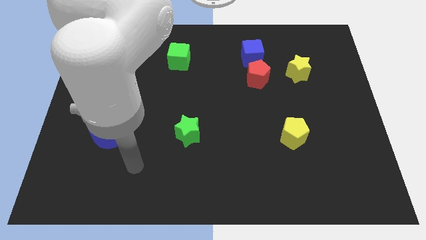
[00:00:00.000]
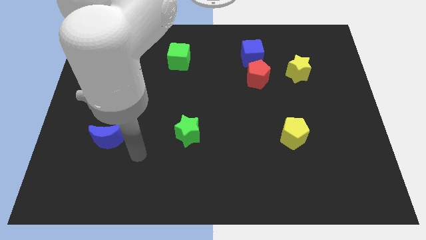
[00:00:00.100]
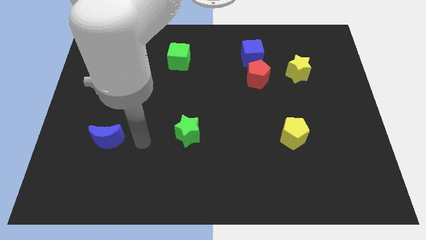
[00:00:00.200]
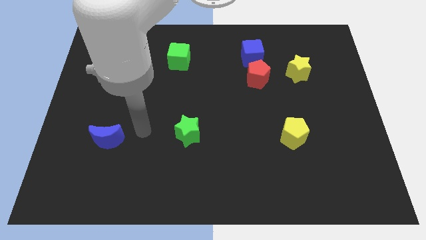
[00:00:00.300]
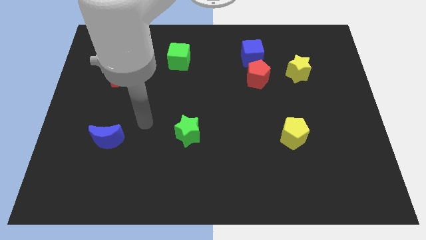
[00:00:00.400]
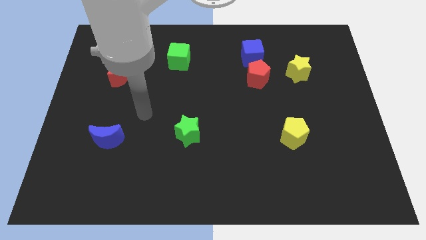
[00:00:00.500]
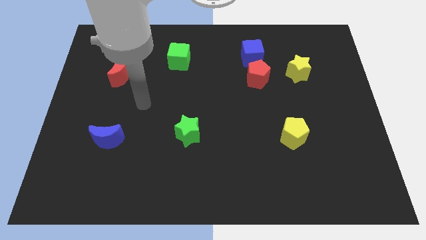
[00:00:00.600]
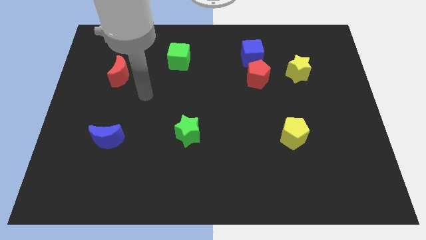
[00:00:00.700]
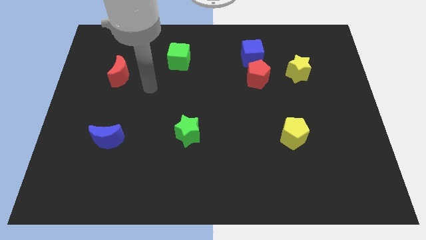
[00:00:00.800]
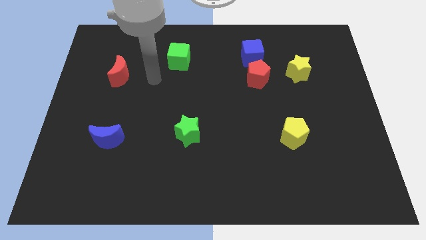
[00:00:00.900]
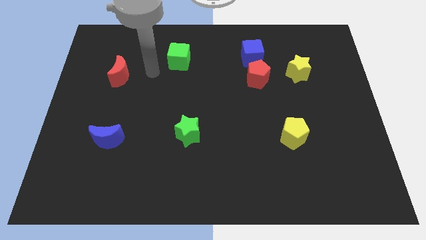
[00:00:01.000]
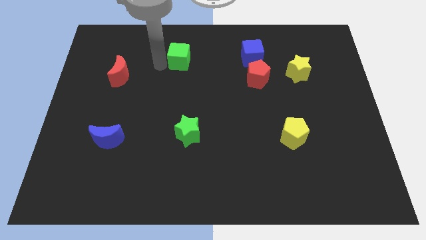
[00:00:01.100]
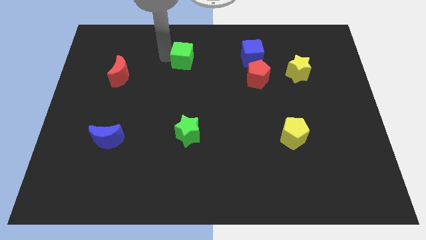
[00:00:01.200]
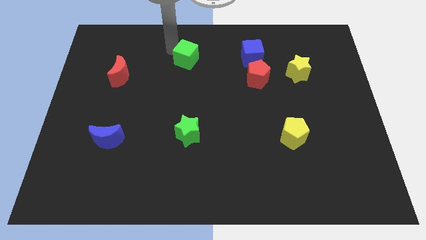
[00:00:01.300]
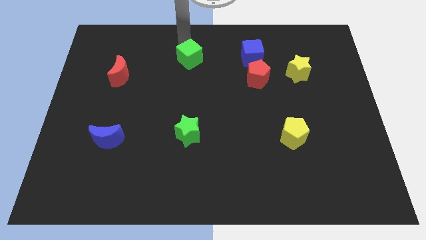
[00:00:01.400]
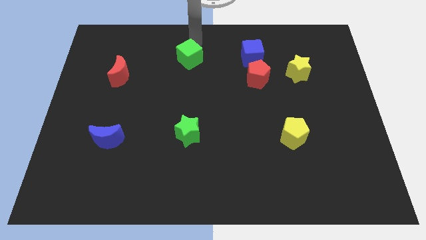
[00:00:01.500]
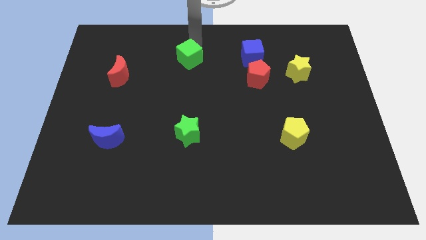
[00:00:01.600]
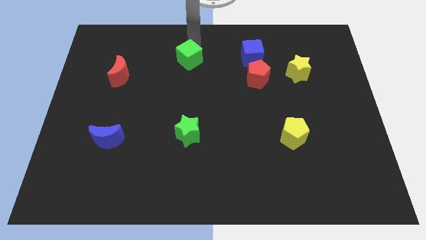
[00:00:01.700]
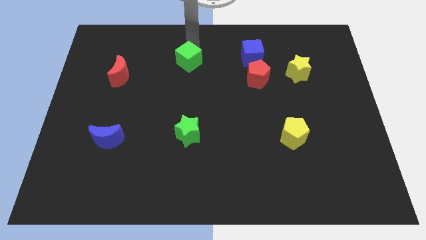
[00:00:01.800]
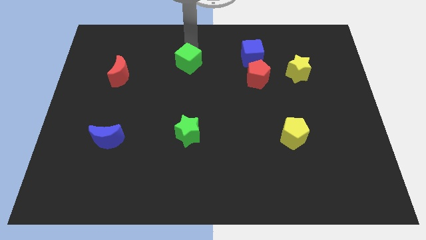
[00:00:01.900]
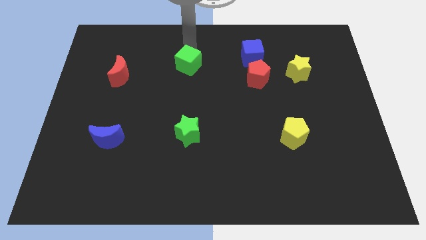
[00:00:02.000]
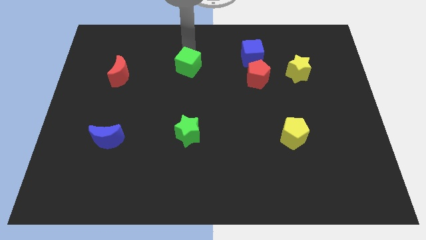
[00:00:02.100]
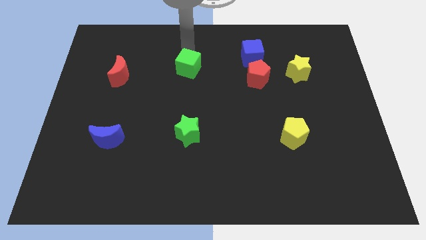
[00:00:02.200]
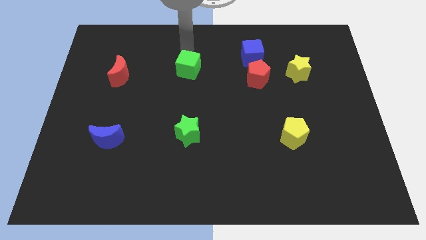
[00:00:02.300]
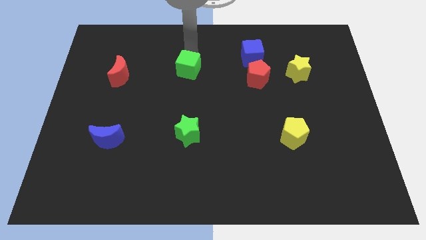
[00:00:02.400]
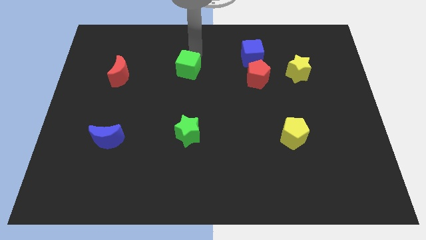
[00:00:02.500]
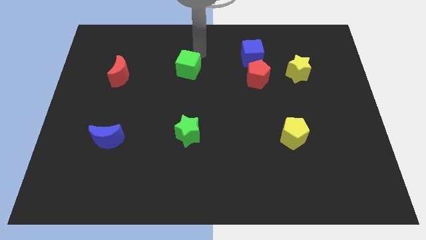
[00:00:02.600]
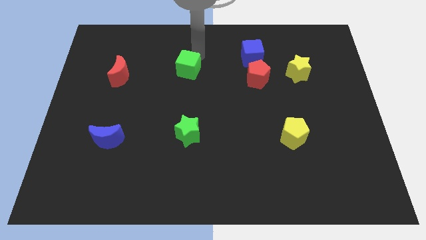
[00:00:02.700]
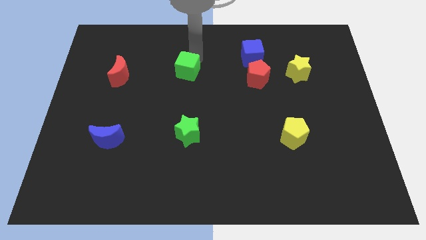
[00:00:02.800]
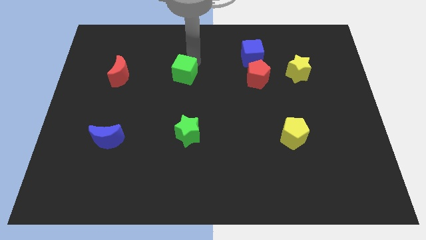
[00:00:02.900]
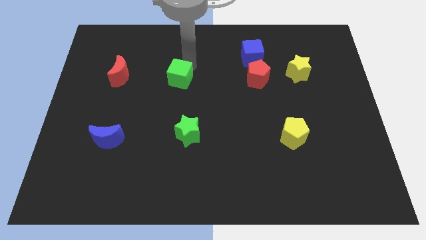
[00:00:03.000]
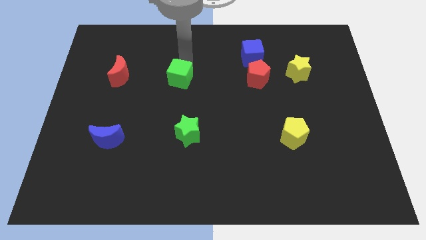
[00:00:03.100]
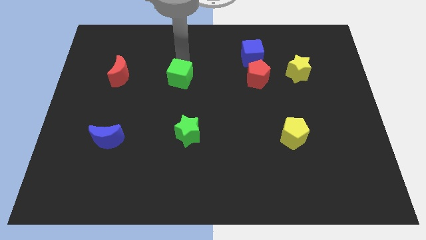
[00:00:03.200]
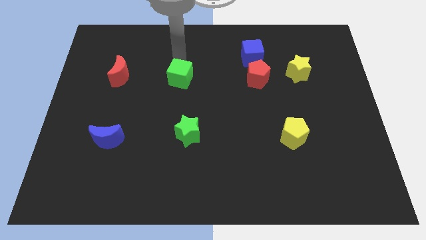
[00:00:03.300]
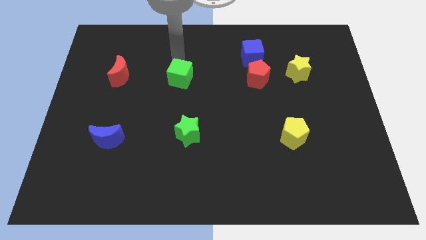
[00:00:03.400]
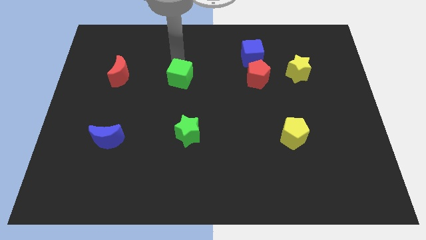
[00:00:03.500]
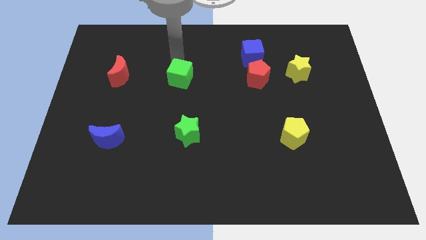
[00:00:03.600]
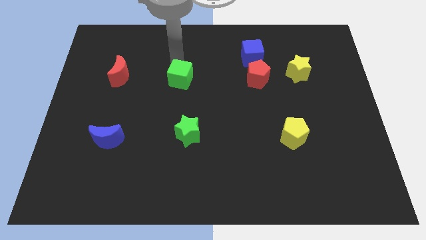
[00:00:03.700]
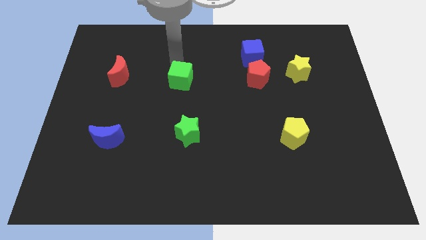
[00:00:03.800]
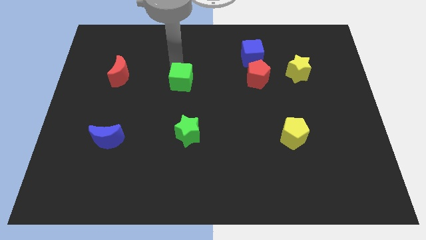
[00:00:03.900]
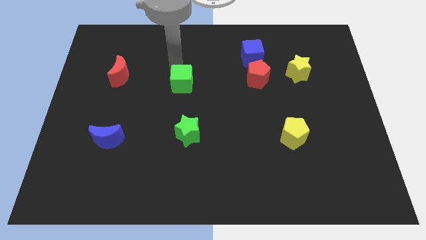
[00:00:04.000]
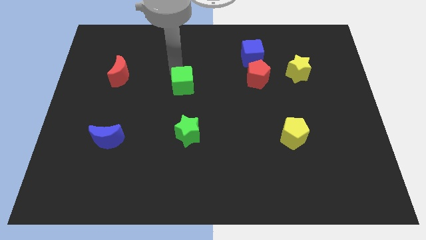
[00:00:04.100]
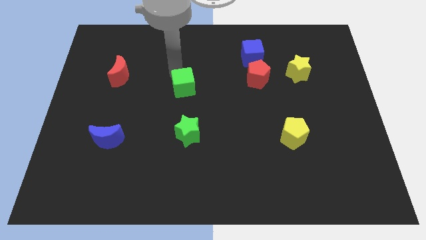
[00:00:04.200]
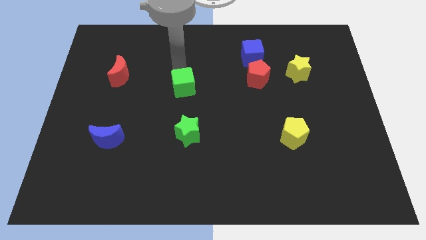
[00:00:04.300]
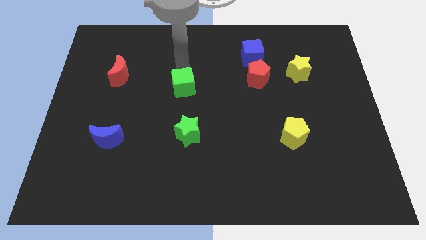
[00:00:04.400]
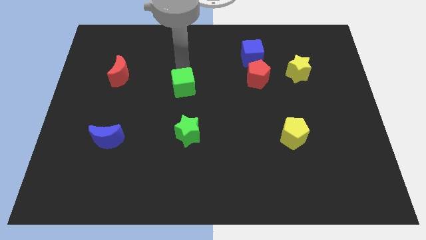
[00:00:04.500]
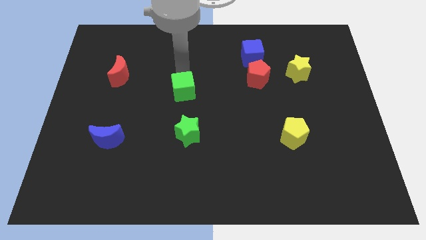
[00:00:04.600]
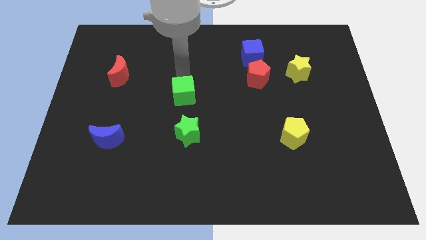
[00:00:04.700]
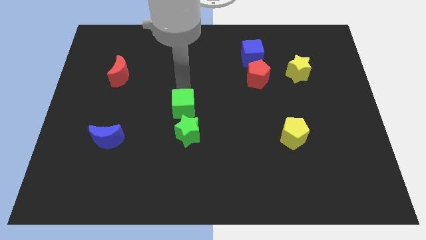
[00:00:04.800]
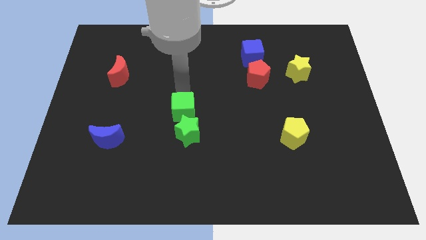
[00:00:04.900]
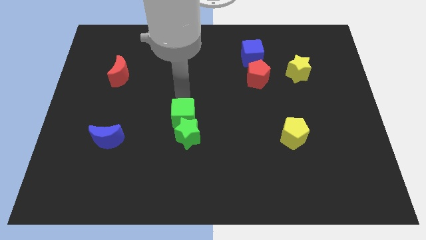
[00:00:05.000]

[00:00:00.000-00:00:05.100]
move the green cube towards the green star

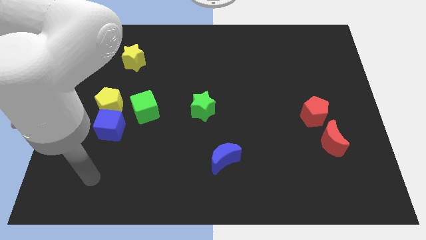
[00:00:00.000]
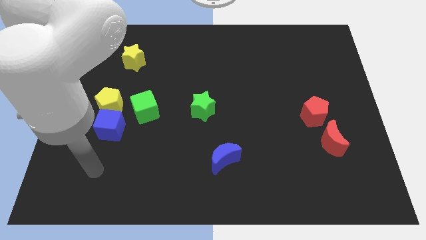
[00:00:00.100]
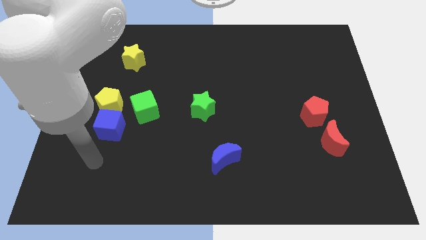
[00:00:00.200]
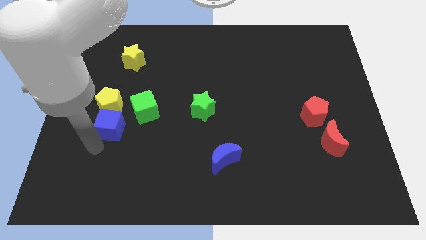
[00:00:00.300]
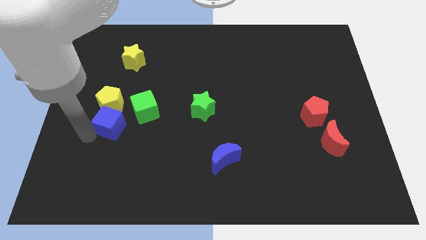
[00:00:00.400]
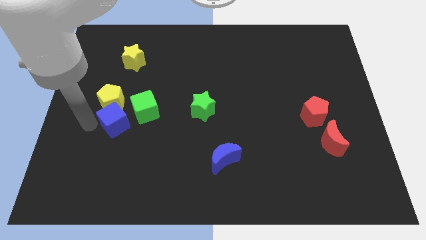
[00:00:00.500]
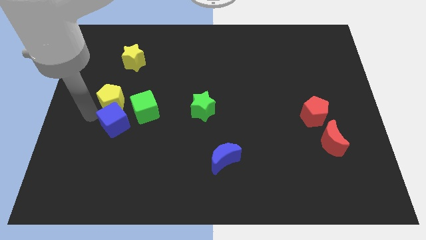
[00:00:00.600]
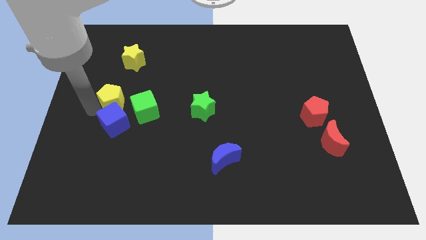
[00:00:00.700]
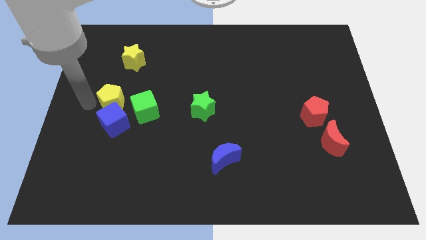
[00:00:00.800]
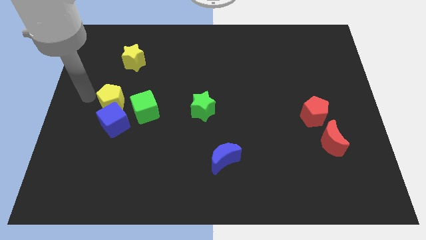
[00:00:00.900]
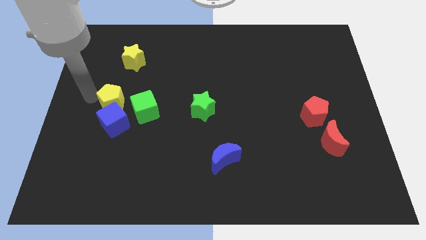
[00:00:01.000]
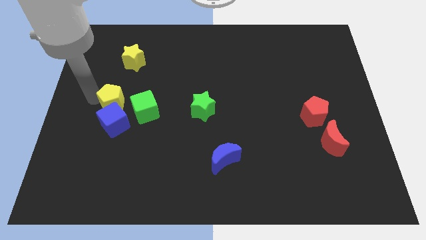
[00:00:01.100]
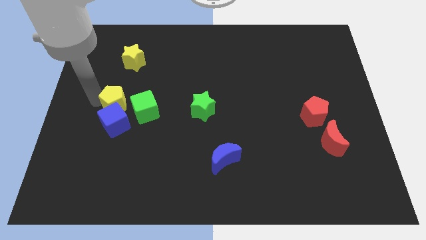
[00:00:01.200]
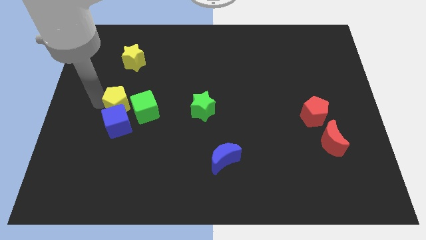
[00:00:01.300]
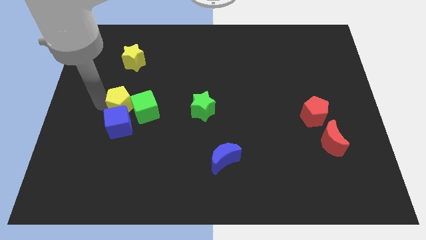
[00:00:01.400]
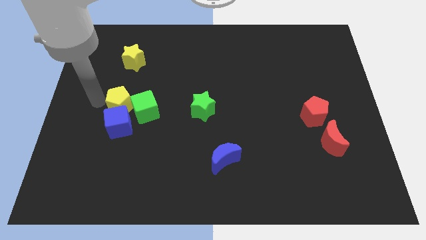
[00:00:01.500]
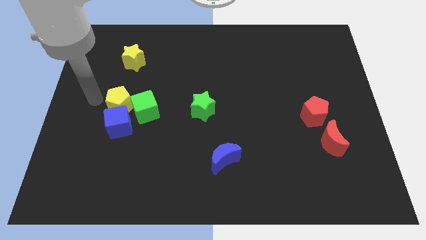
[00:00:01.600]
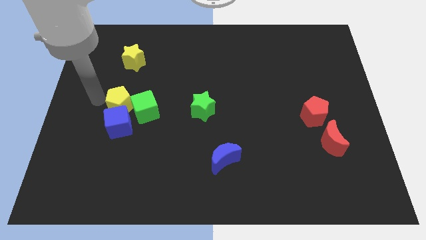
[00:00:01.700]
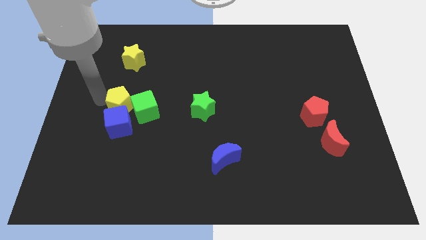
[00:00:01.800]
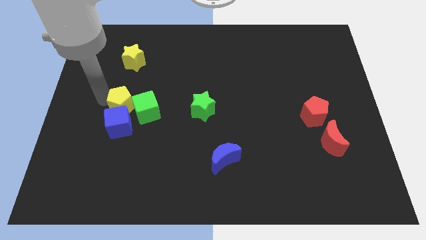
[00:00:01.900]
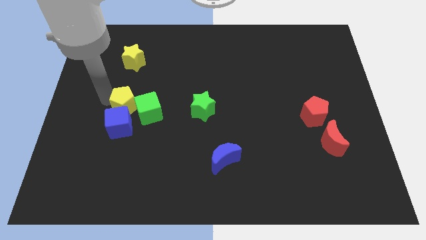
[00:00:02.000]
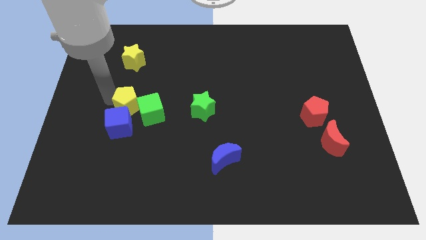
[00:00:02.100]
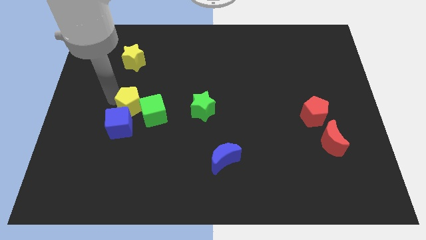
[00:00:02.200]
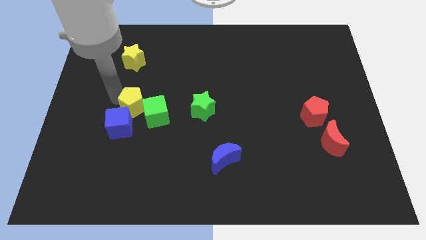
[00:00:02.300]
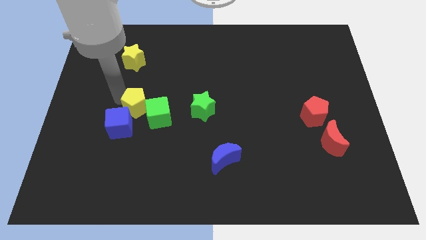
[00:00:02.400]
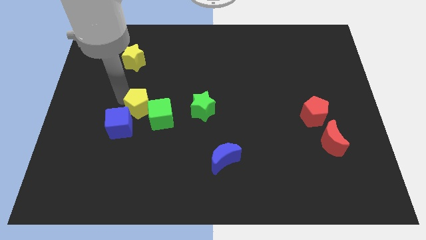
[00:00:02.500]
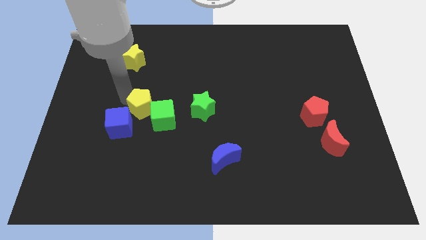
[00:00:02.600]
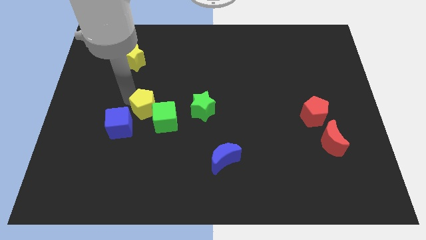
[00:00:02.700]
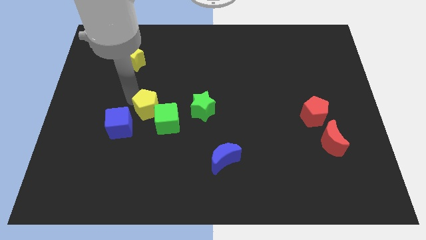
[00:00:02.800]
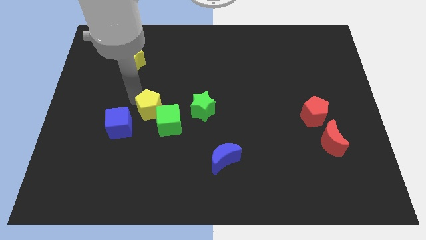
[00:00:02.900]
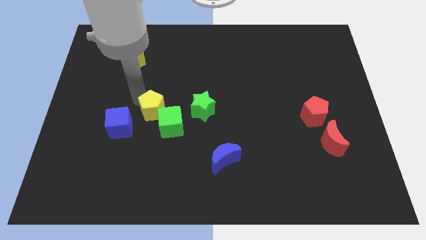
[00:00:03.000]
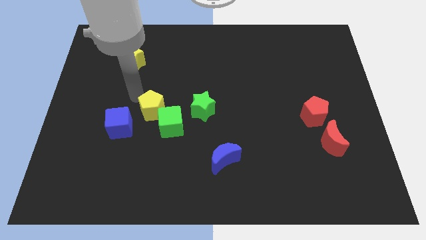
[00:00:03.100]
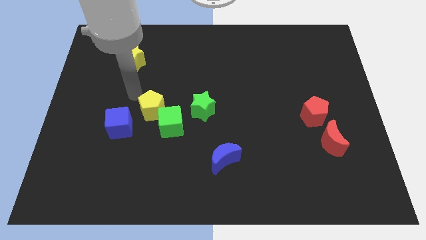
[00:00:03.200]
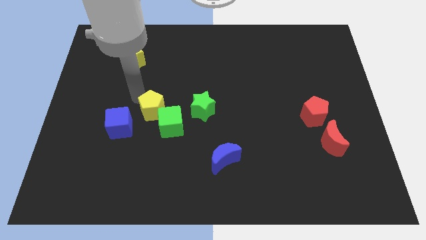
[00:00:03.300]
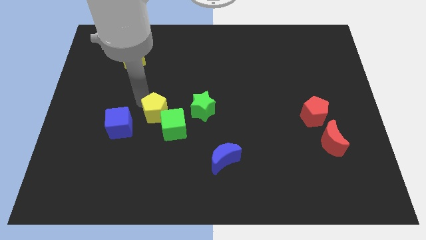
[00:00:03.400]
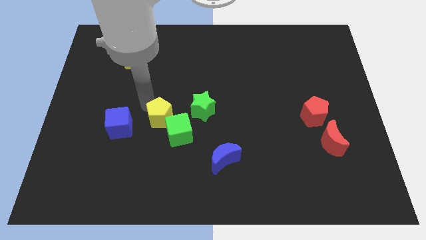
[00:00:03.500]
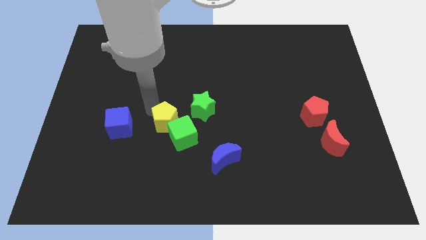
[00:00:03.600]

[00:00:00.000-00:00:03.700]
move the yellow pentagon close to the green cube
